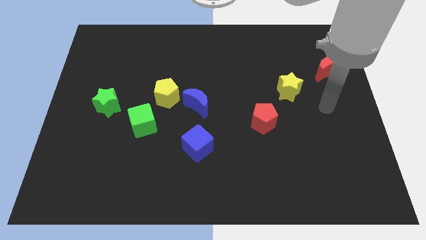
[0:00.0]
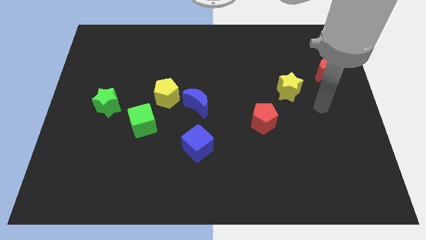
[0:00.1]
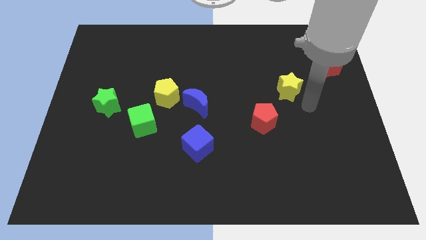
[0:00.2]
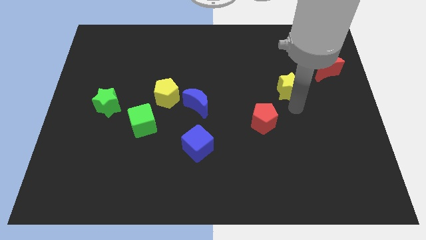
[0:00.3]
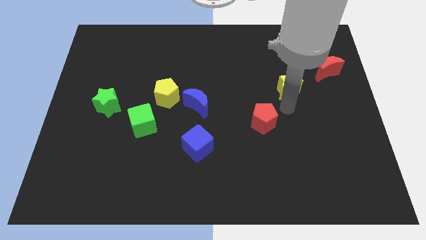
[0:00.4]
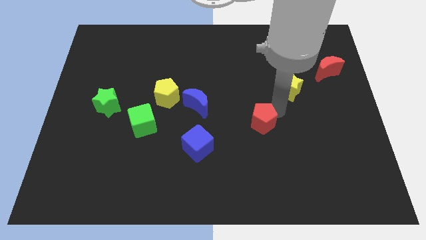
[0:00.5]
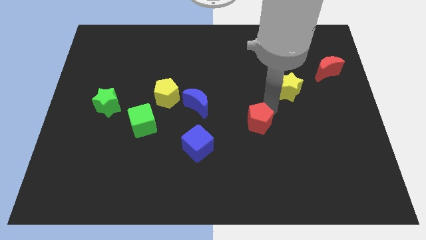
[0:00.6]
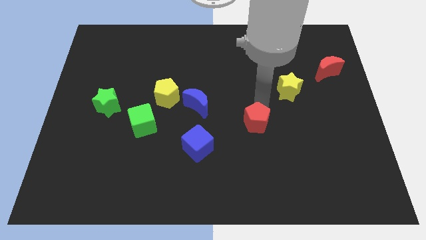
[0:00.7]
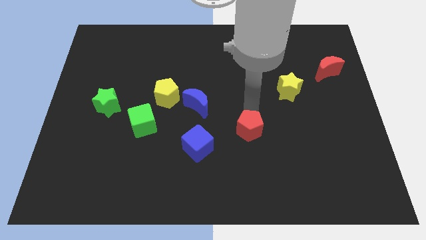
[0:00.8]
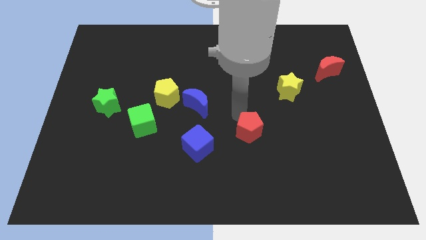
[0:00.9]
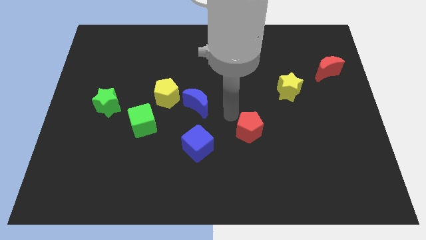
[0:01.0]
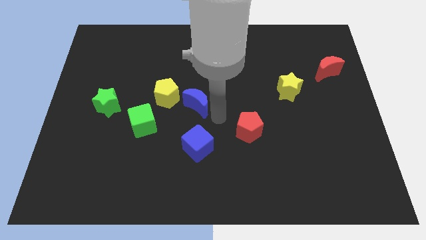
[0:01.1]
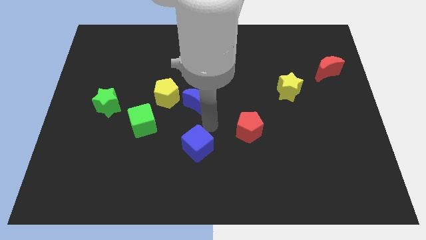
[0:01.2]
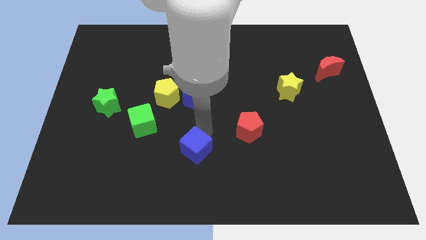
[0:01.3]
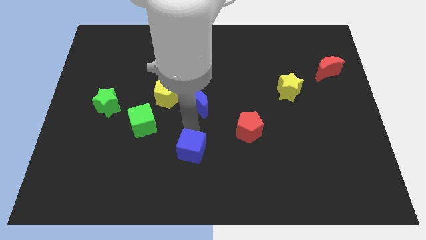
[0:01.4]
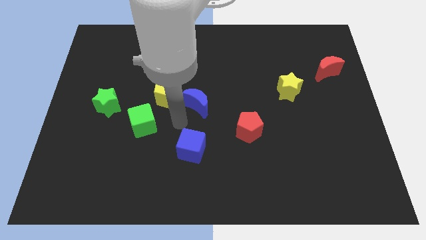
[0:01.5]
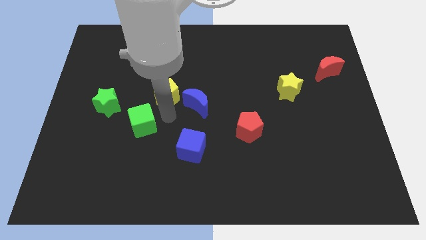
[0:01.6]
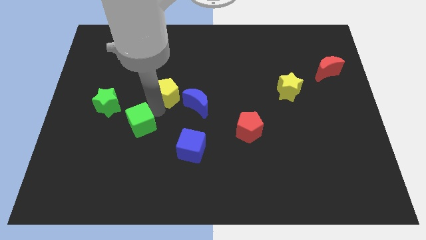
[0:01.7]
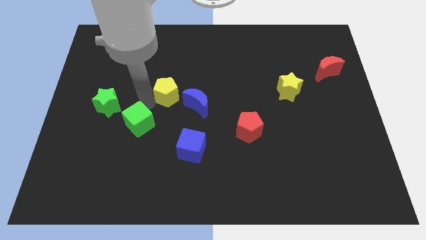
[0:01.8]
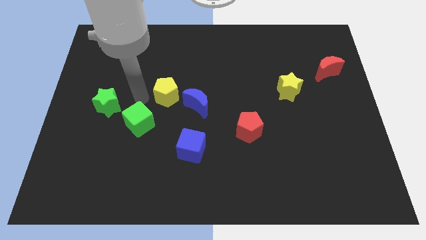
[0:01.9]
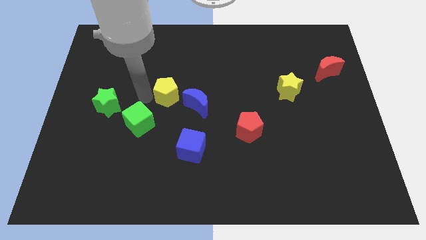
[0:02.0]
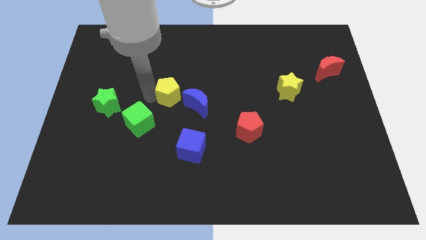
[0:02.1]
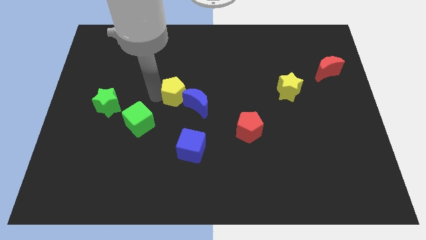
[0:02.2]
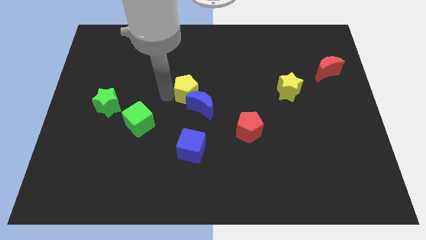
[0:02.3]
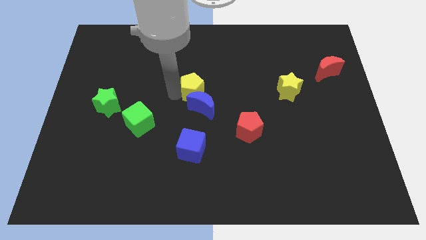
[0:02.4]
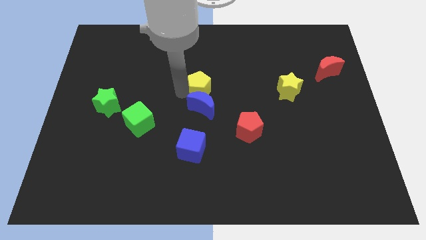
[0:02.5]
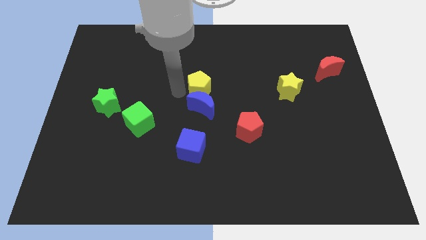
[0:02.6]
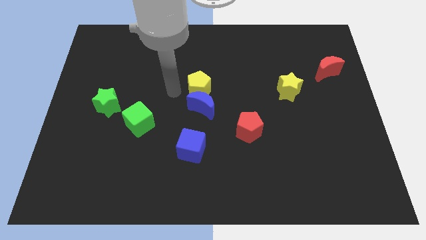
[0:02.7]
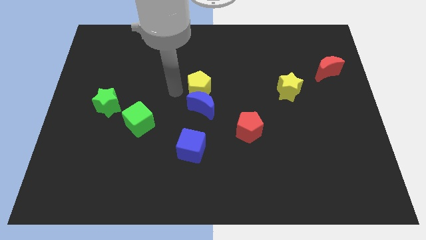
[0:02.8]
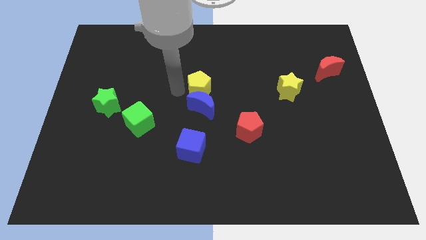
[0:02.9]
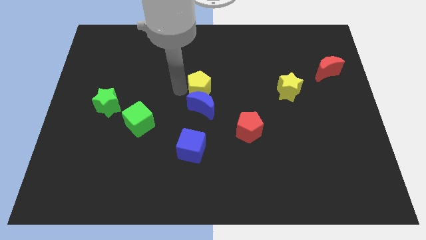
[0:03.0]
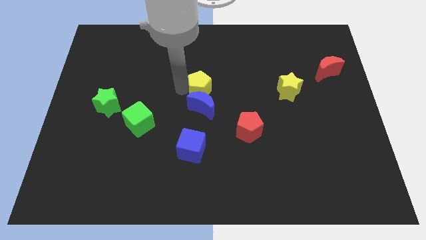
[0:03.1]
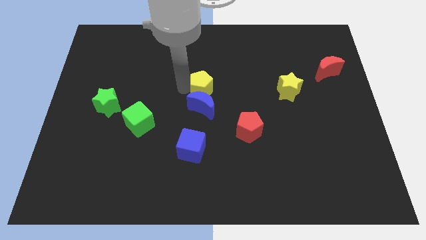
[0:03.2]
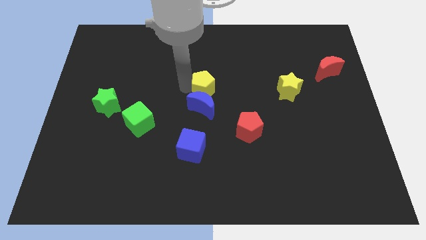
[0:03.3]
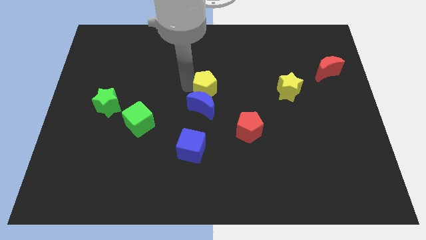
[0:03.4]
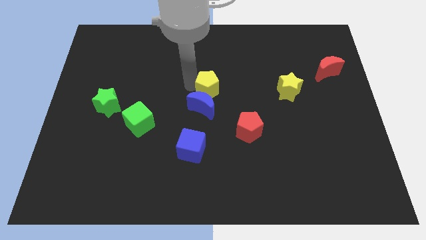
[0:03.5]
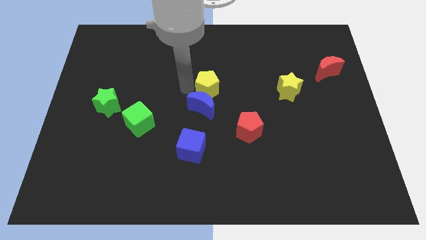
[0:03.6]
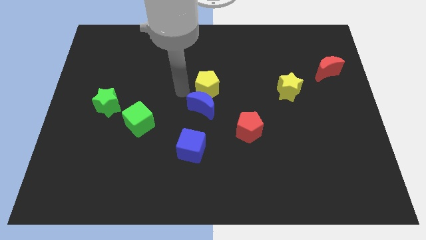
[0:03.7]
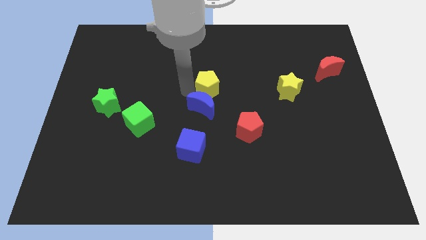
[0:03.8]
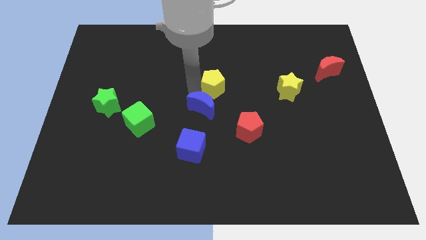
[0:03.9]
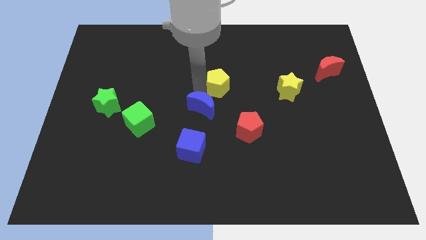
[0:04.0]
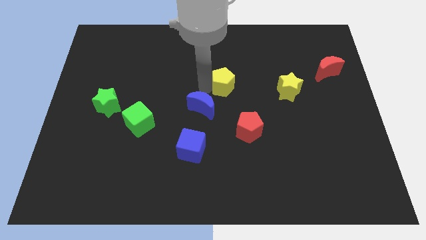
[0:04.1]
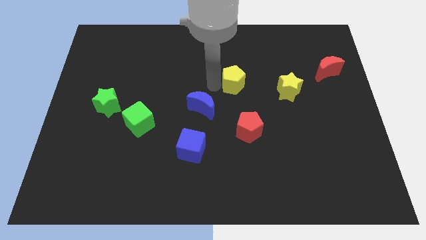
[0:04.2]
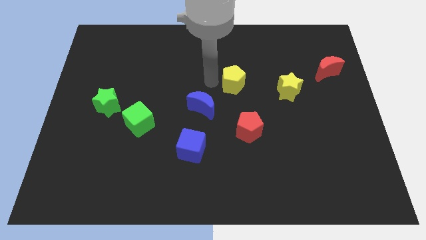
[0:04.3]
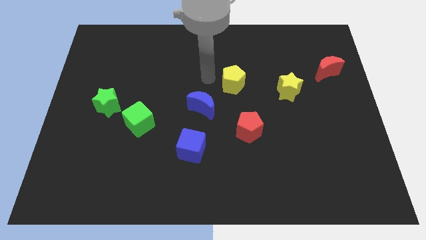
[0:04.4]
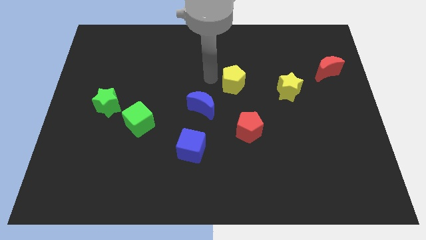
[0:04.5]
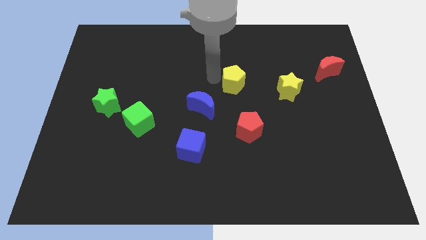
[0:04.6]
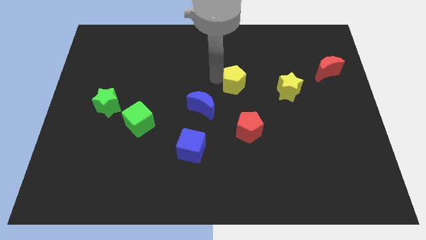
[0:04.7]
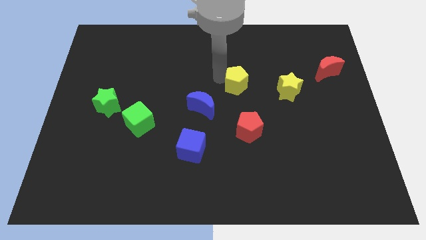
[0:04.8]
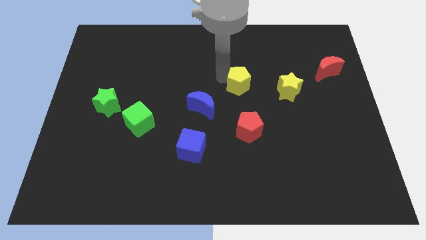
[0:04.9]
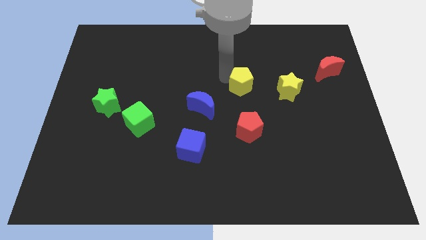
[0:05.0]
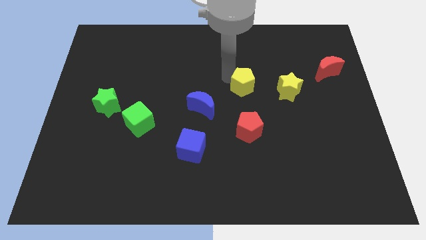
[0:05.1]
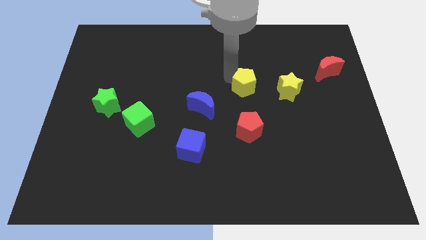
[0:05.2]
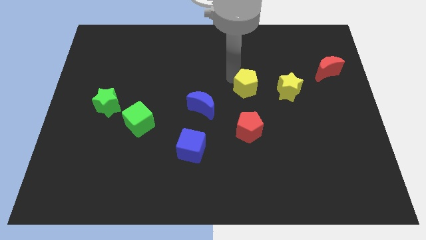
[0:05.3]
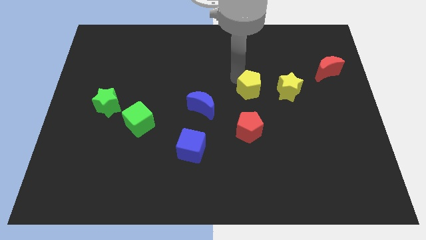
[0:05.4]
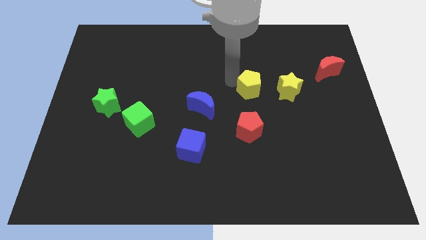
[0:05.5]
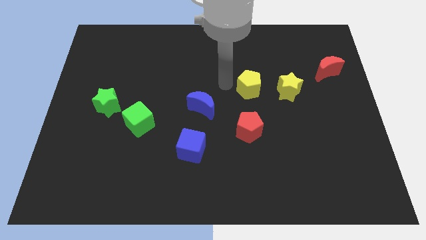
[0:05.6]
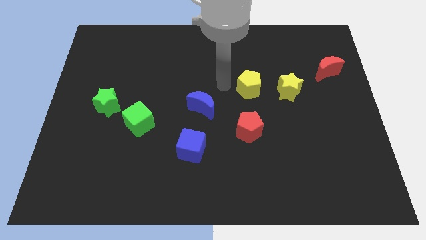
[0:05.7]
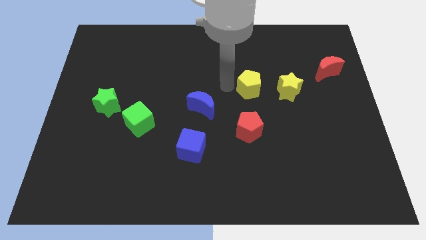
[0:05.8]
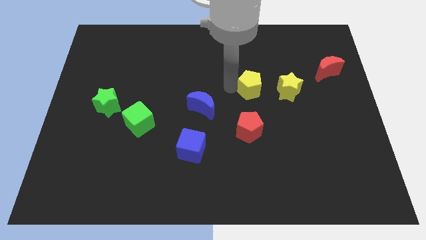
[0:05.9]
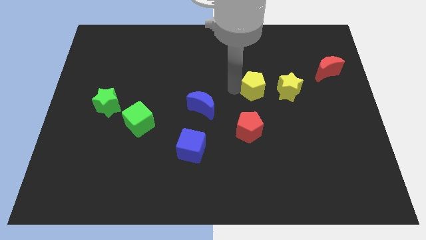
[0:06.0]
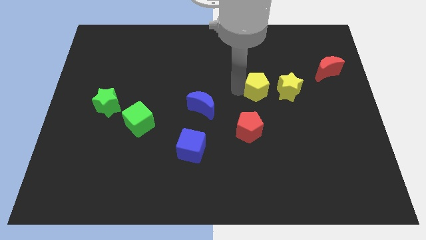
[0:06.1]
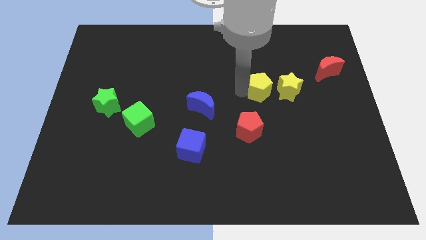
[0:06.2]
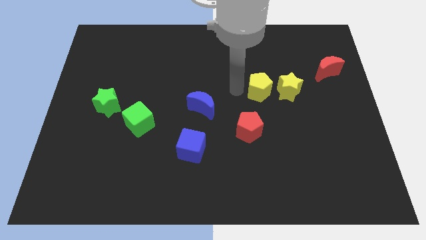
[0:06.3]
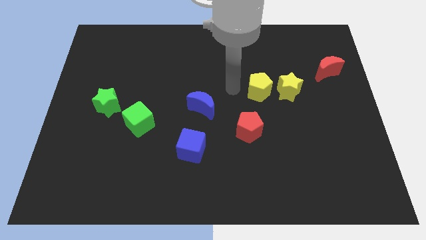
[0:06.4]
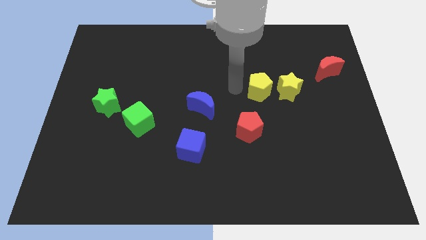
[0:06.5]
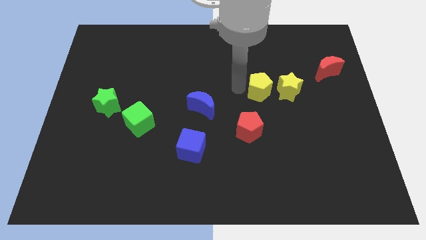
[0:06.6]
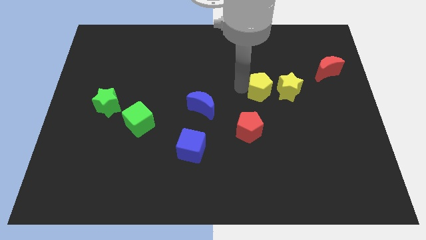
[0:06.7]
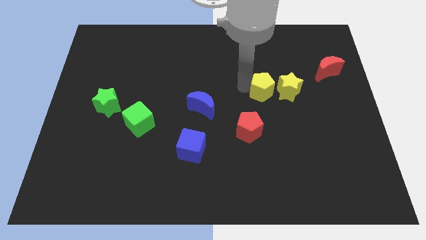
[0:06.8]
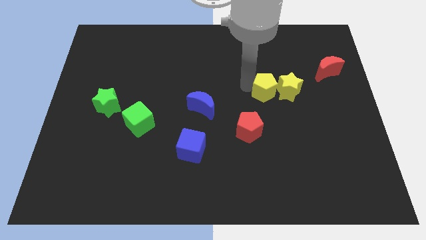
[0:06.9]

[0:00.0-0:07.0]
put the yellow pentagon next to the yellow star
